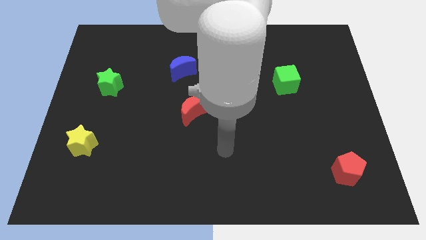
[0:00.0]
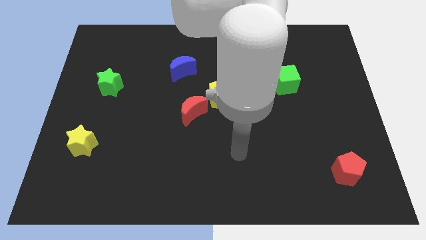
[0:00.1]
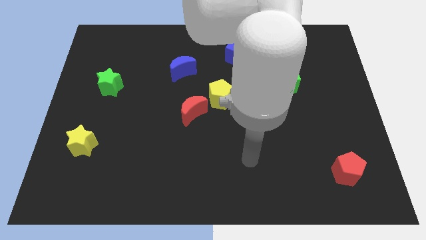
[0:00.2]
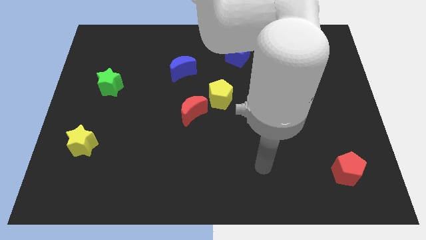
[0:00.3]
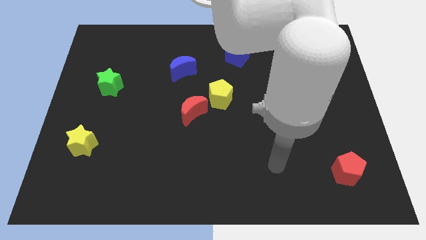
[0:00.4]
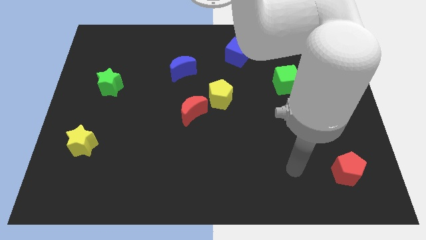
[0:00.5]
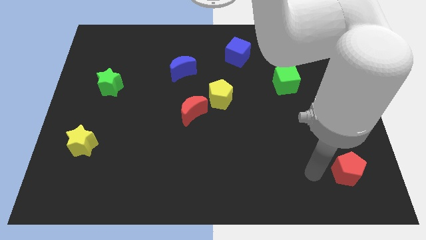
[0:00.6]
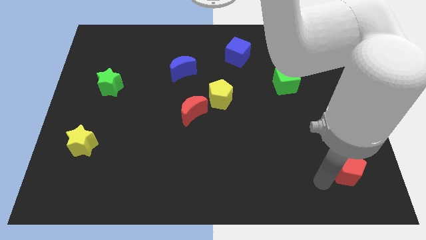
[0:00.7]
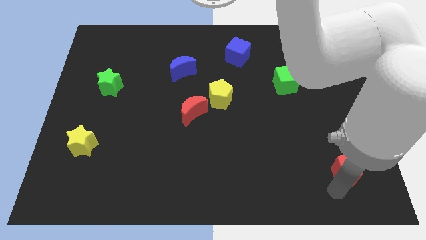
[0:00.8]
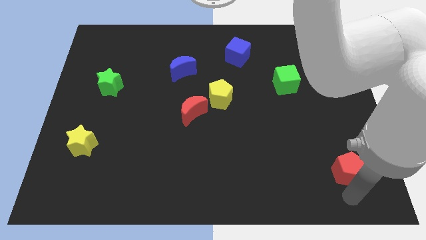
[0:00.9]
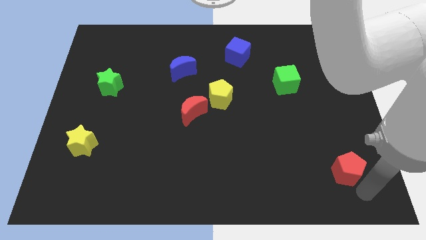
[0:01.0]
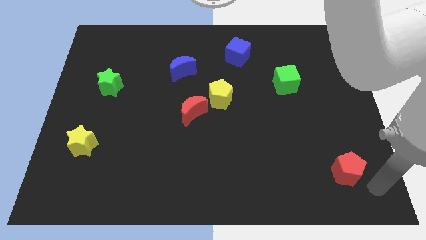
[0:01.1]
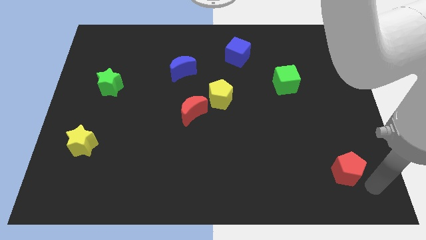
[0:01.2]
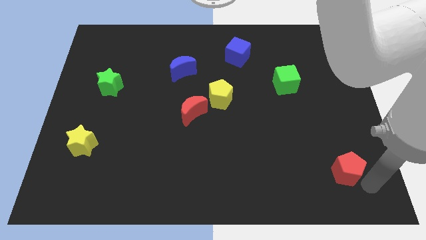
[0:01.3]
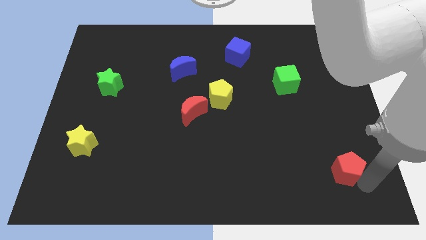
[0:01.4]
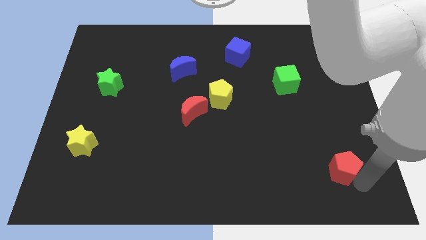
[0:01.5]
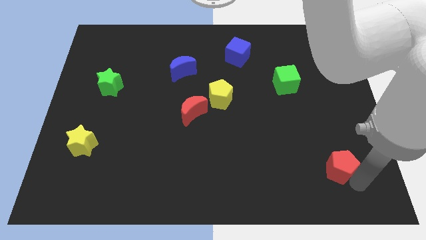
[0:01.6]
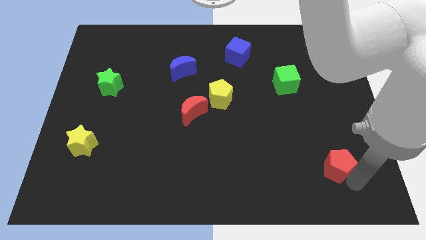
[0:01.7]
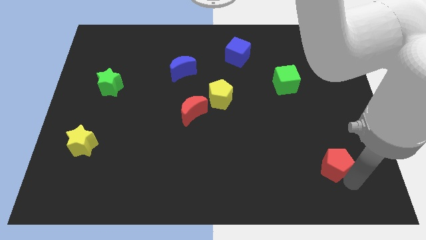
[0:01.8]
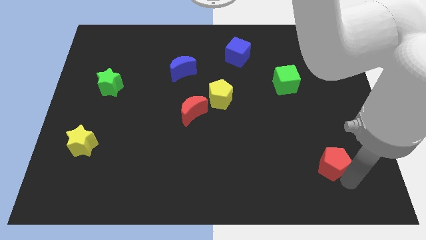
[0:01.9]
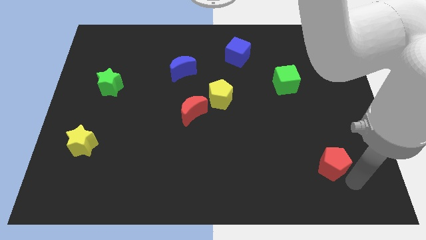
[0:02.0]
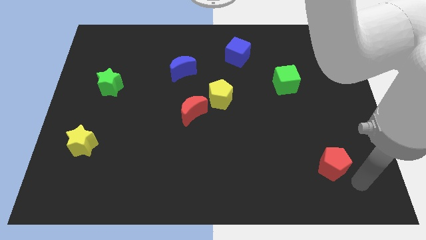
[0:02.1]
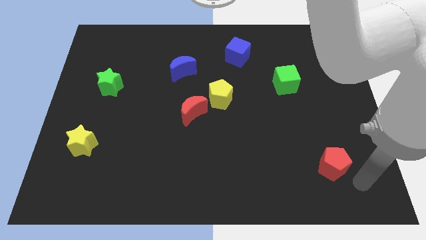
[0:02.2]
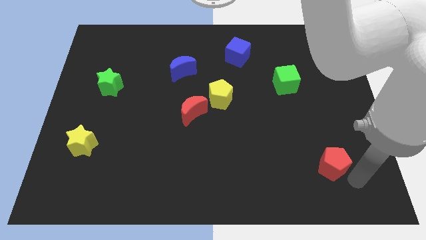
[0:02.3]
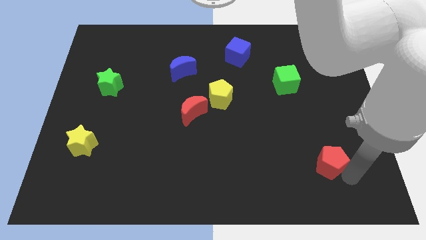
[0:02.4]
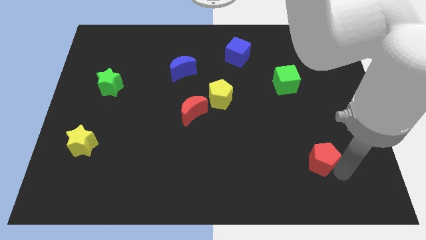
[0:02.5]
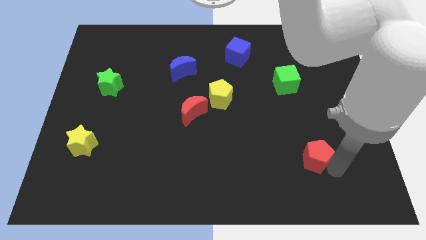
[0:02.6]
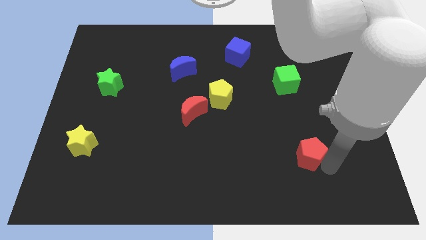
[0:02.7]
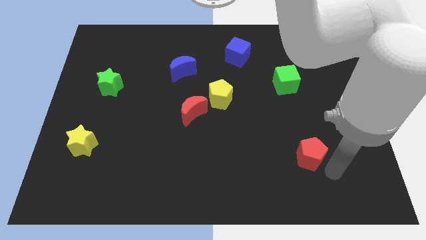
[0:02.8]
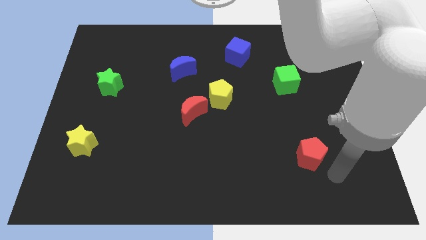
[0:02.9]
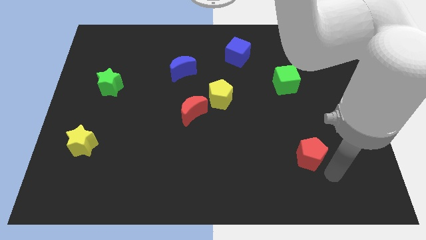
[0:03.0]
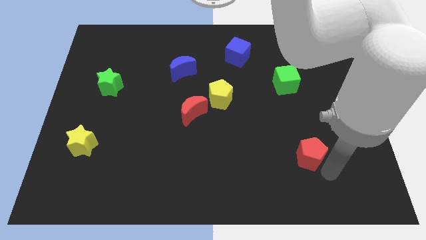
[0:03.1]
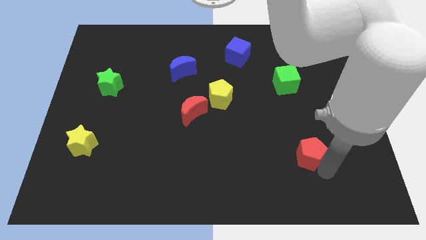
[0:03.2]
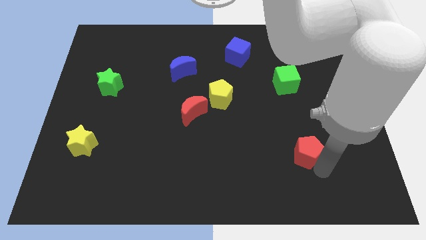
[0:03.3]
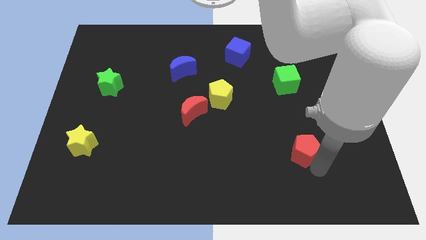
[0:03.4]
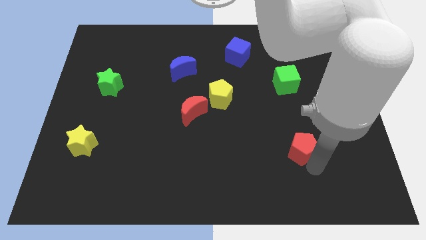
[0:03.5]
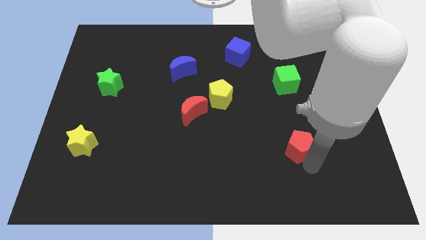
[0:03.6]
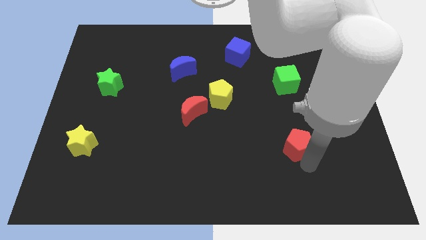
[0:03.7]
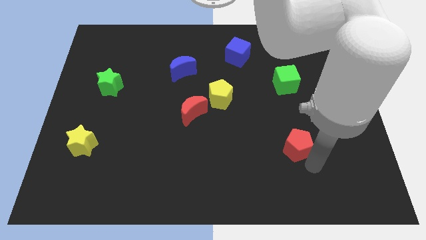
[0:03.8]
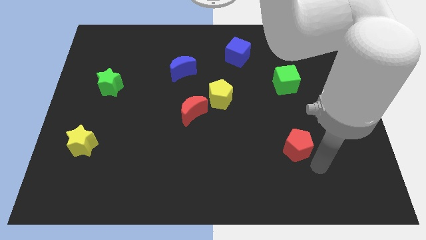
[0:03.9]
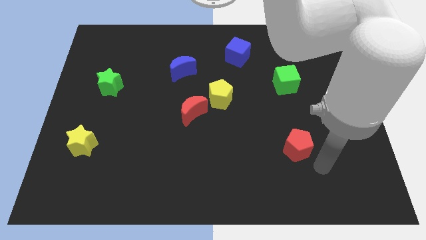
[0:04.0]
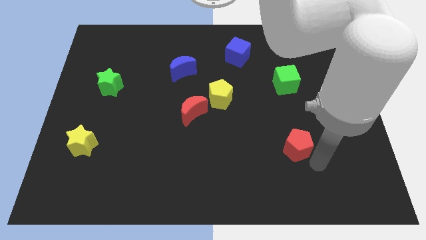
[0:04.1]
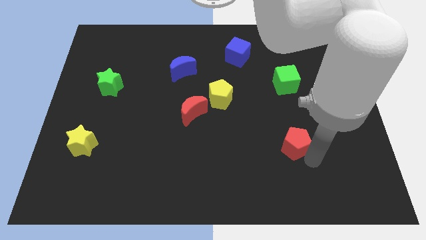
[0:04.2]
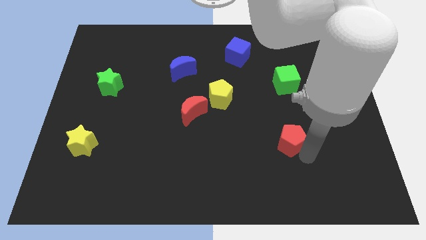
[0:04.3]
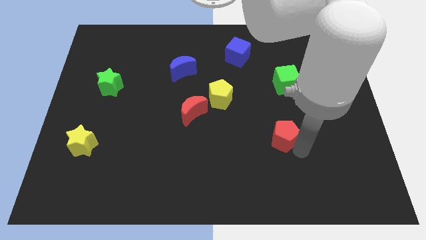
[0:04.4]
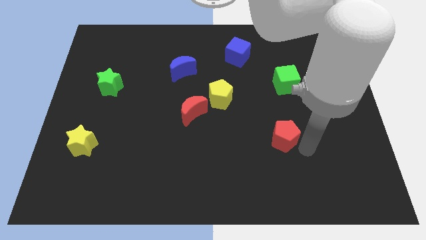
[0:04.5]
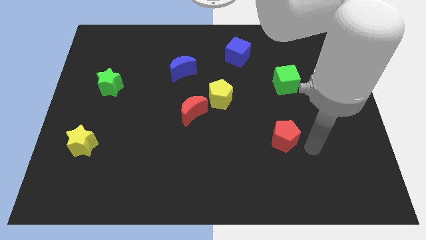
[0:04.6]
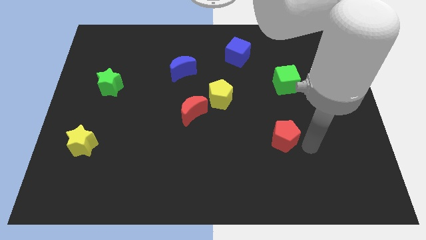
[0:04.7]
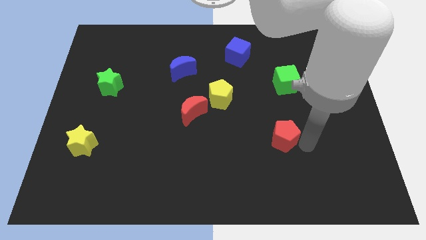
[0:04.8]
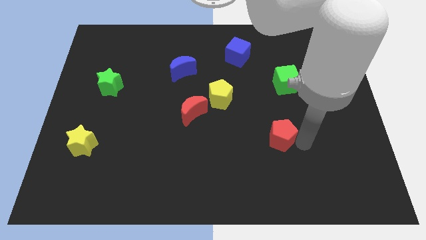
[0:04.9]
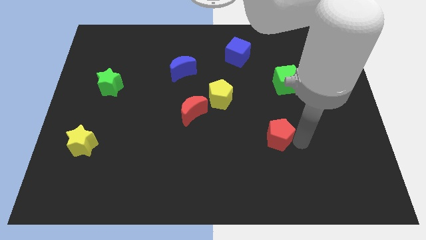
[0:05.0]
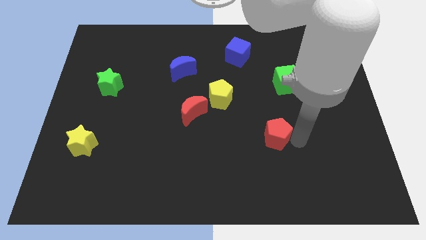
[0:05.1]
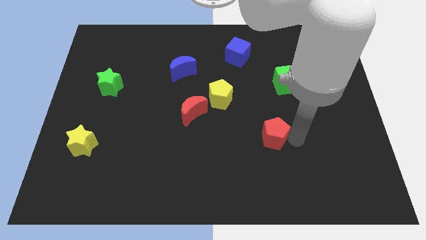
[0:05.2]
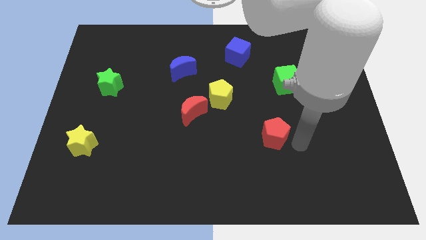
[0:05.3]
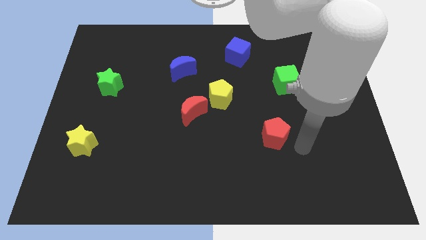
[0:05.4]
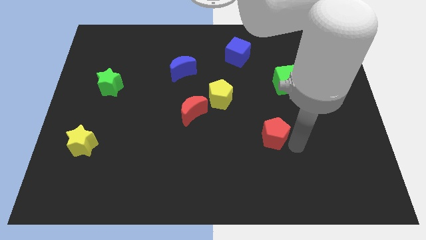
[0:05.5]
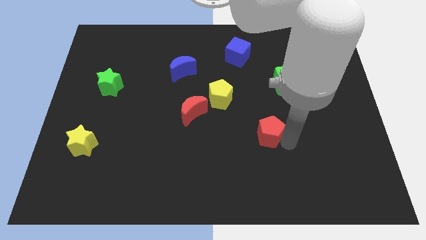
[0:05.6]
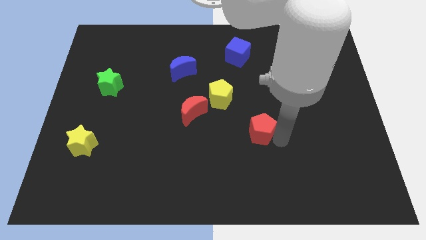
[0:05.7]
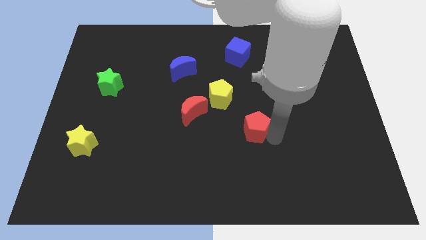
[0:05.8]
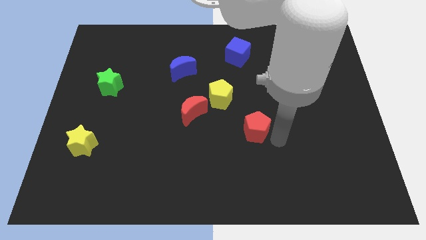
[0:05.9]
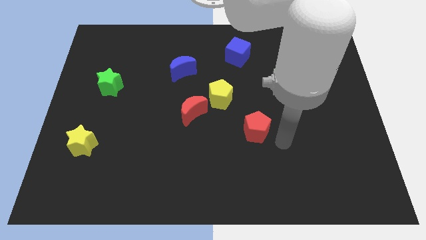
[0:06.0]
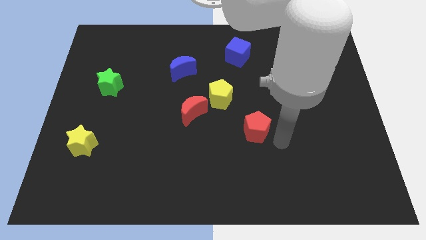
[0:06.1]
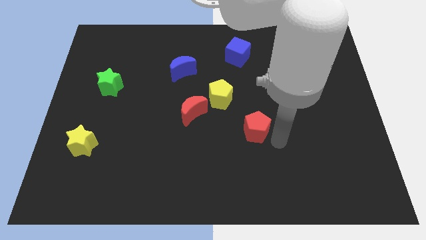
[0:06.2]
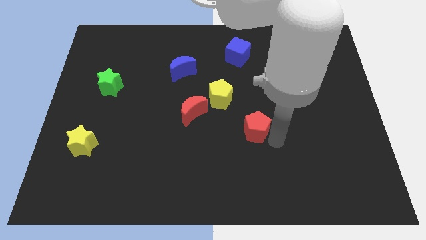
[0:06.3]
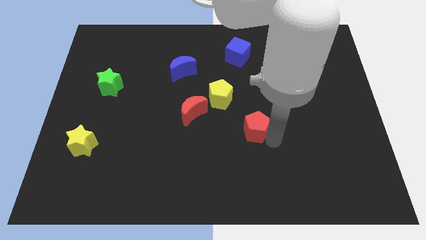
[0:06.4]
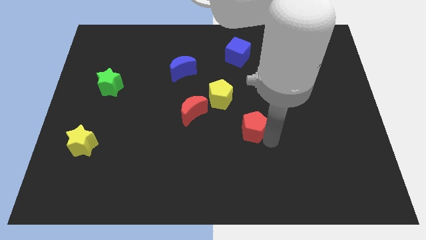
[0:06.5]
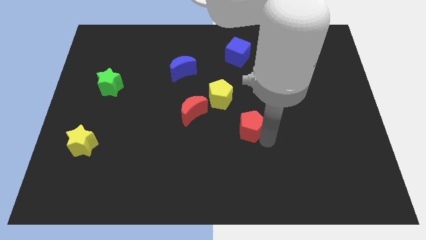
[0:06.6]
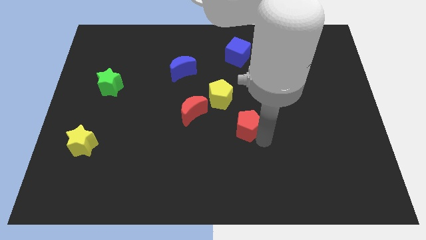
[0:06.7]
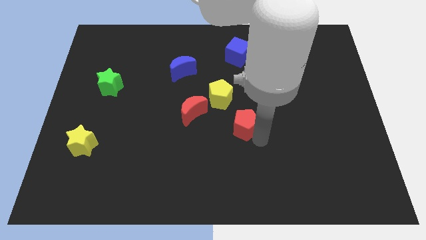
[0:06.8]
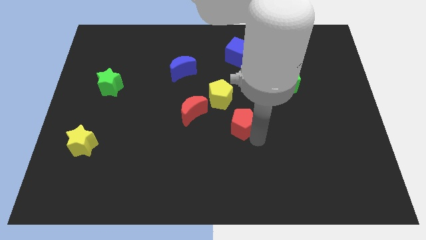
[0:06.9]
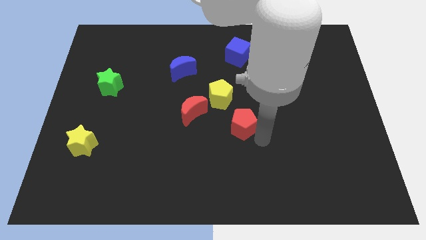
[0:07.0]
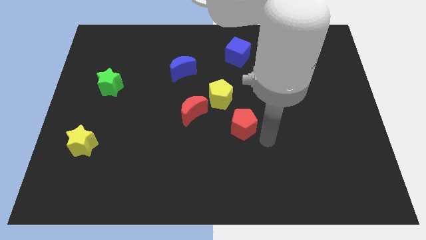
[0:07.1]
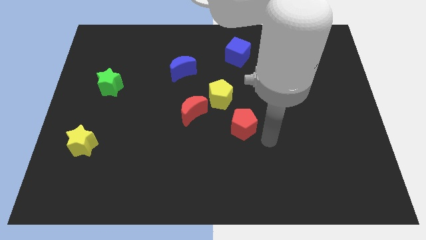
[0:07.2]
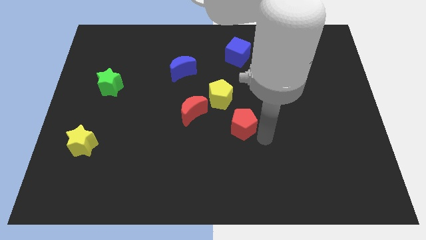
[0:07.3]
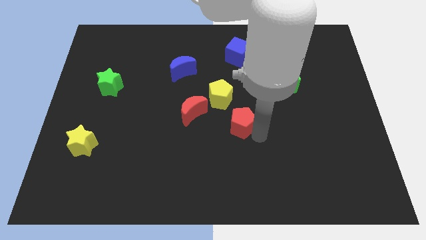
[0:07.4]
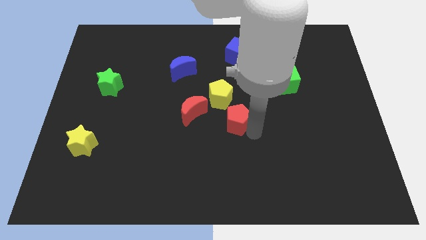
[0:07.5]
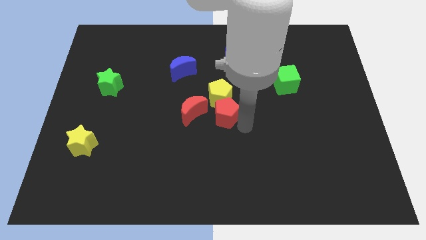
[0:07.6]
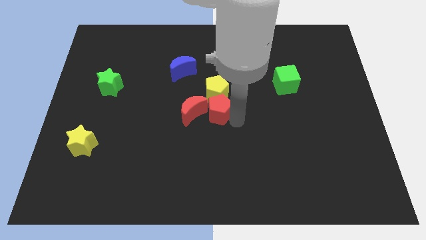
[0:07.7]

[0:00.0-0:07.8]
push the red pentagon to the red moon
